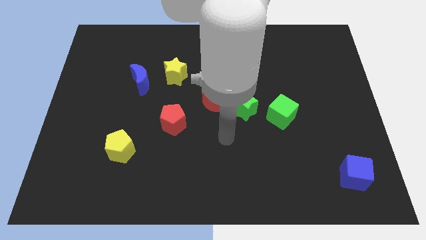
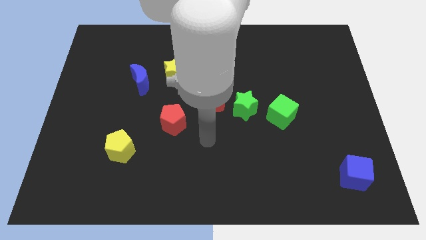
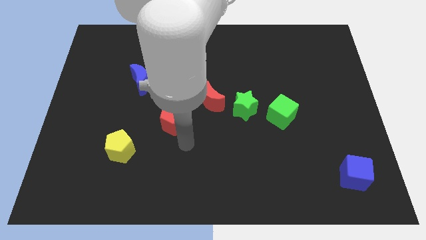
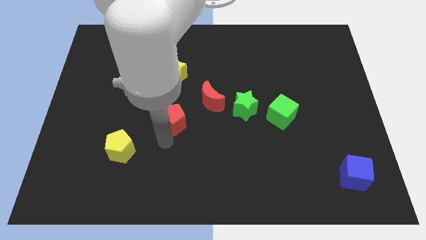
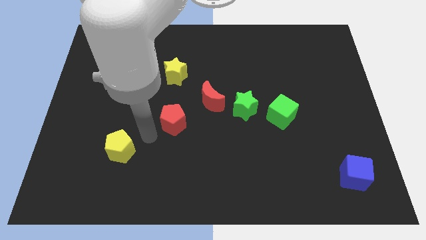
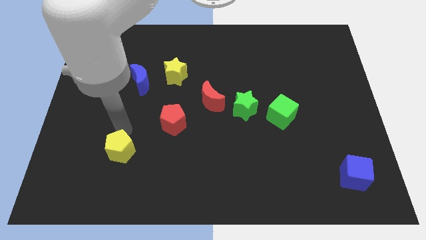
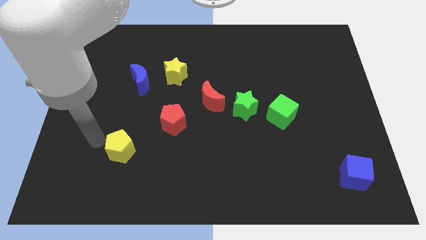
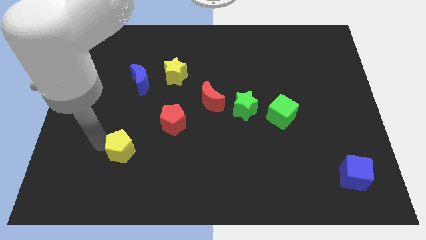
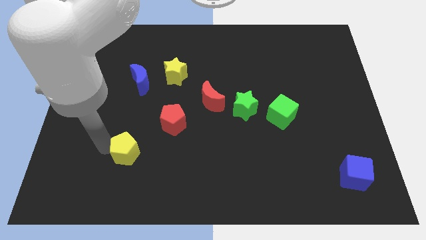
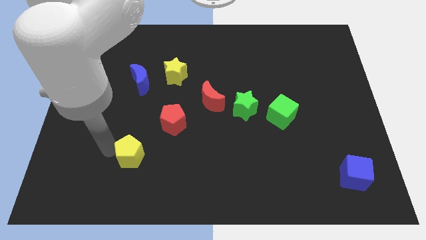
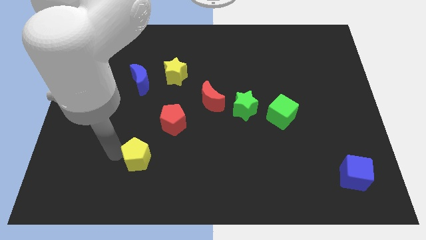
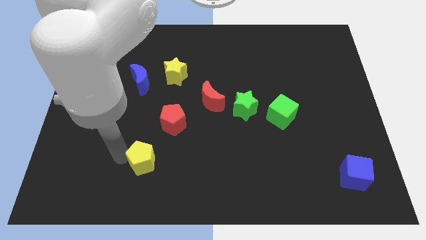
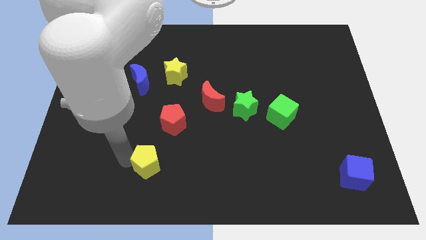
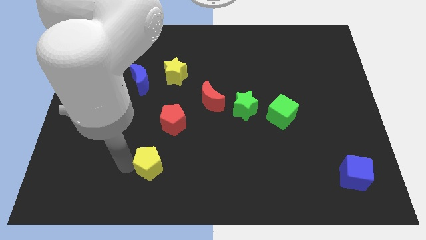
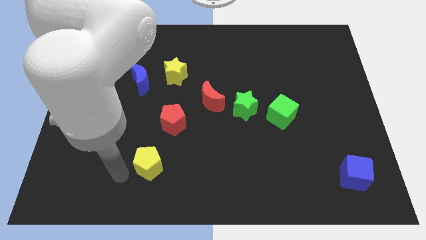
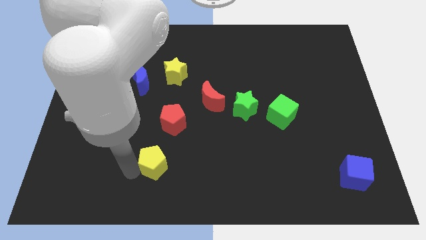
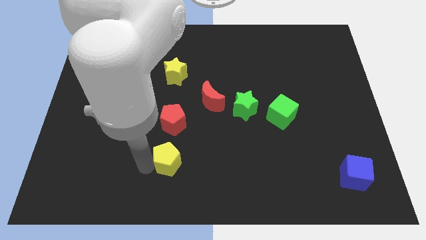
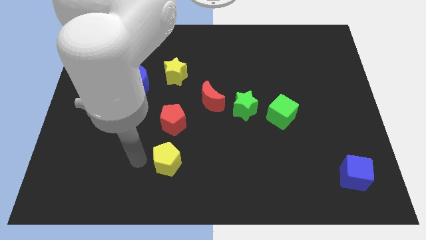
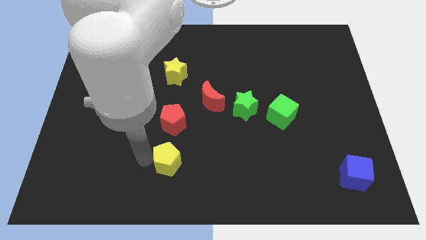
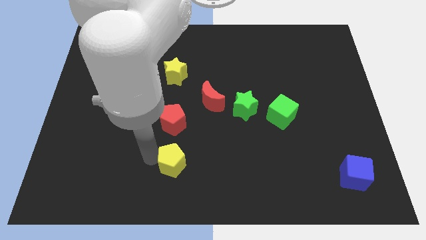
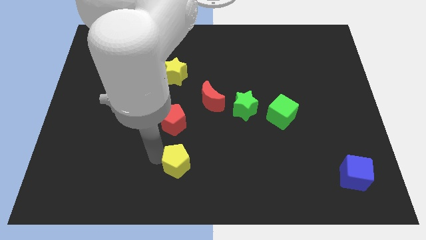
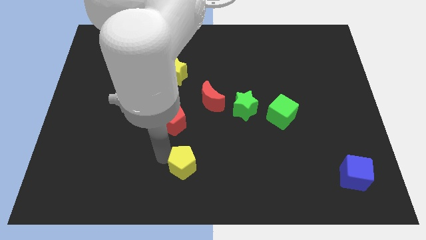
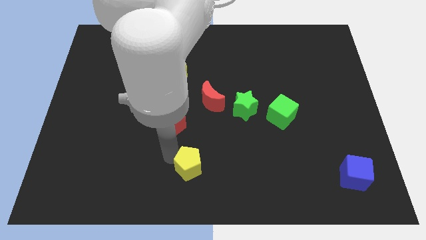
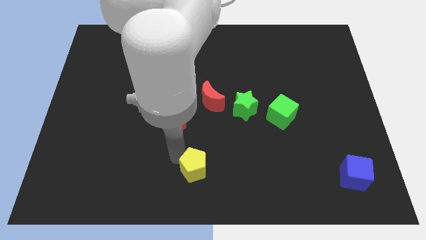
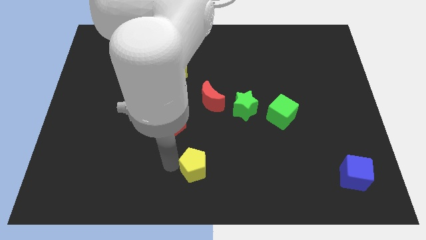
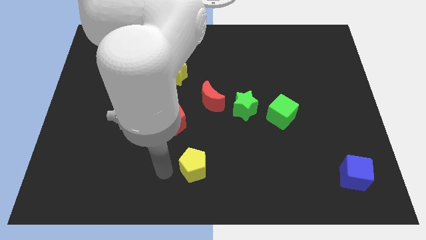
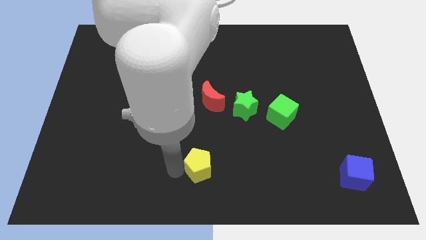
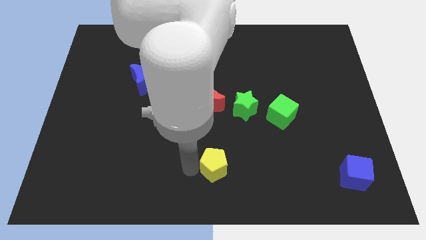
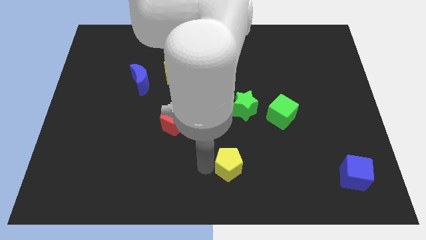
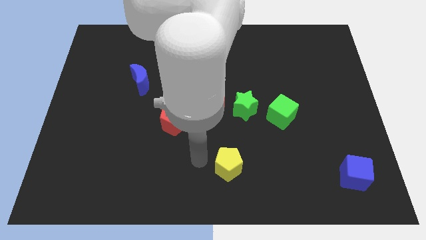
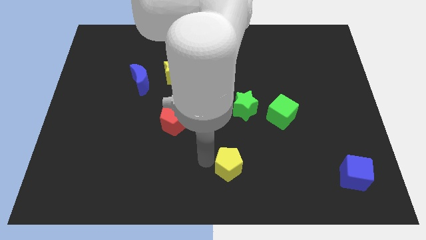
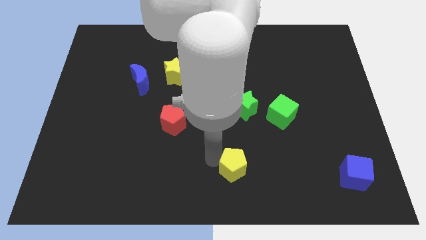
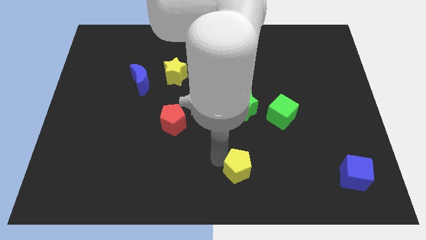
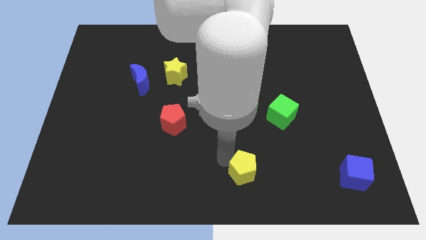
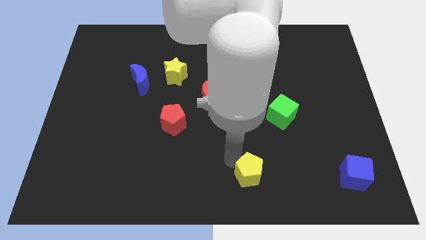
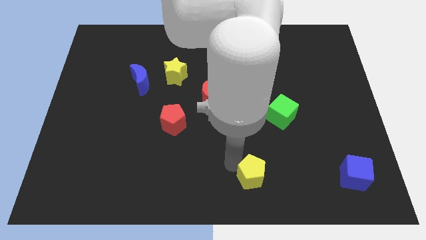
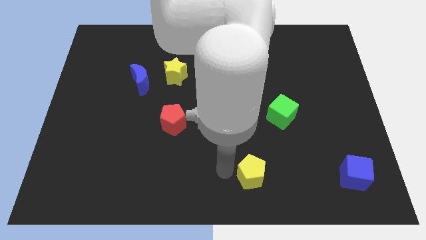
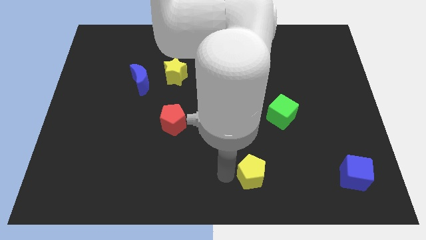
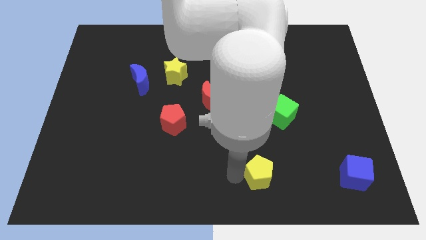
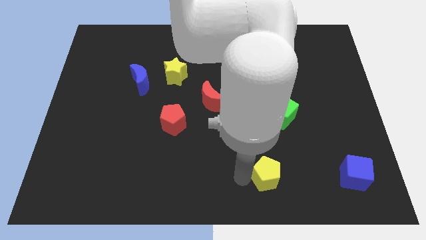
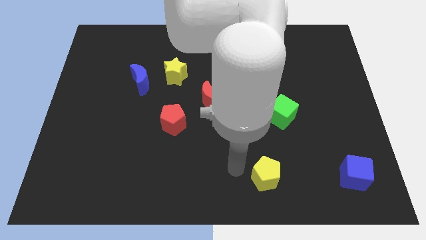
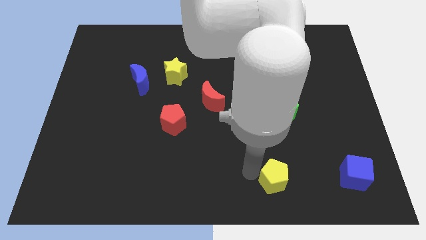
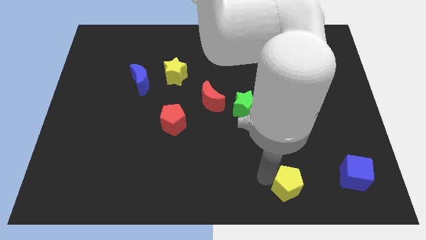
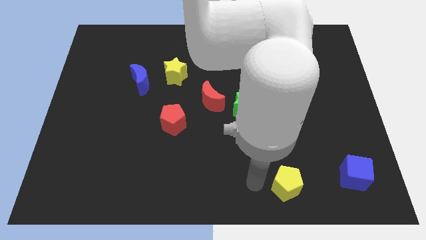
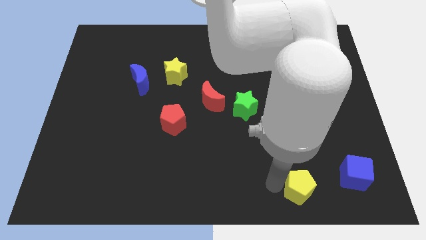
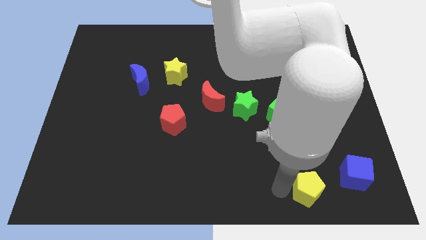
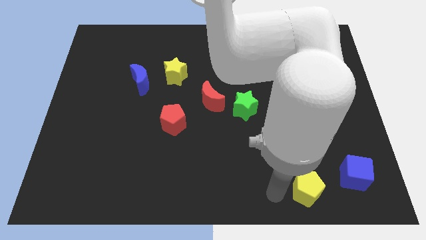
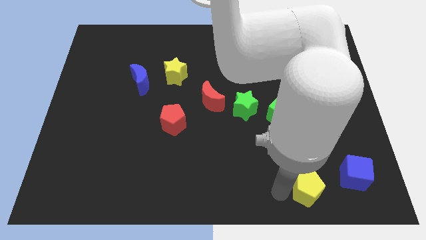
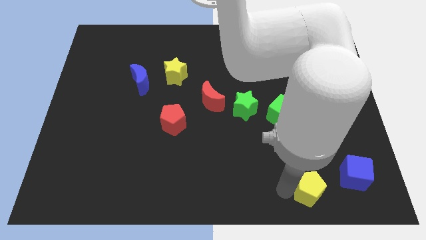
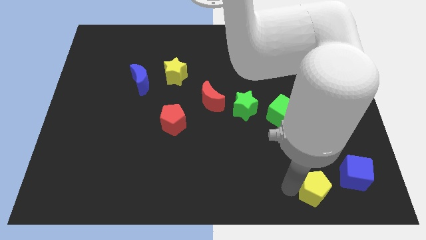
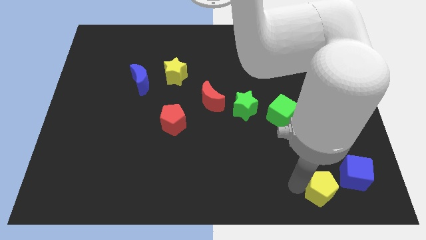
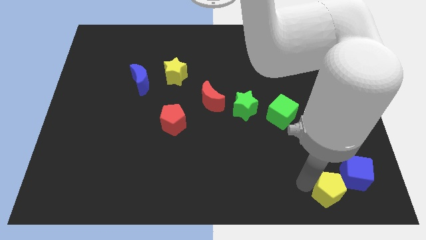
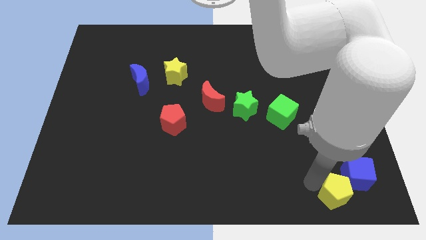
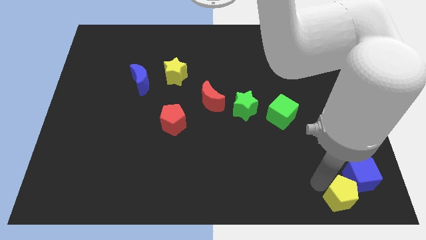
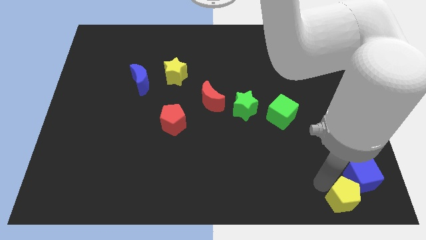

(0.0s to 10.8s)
push the yellow pentagon to the bottom right
